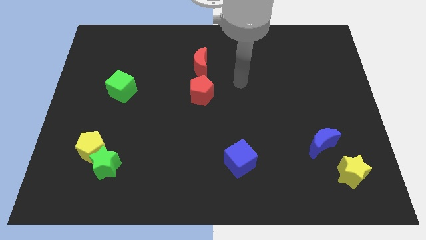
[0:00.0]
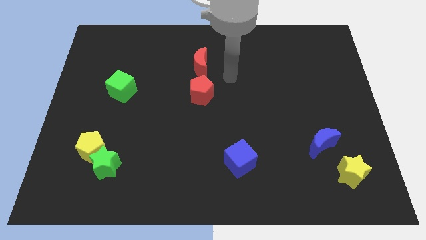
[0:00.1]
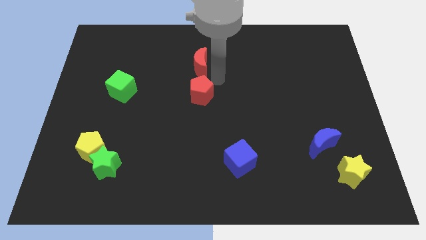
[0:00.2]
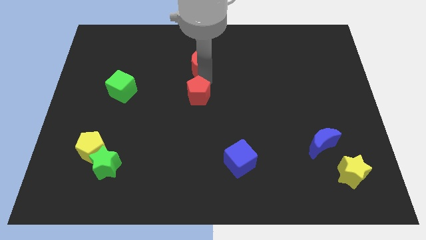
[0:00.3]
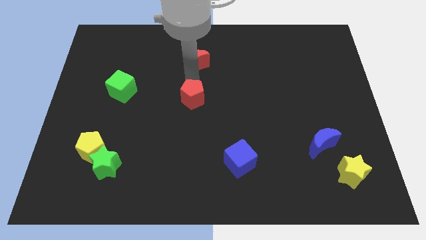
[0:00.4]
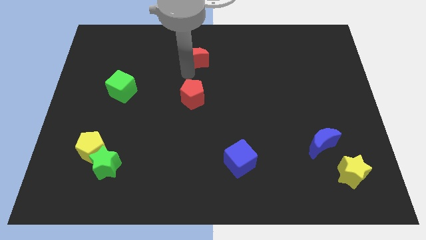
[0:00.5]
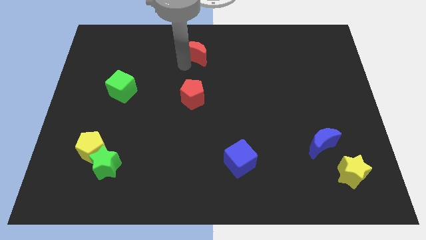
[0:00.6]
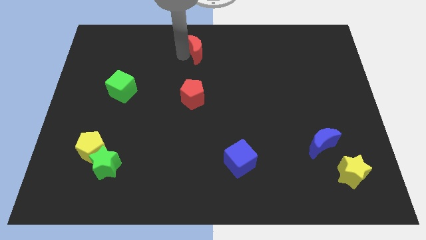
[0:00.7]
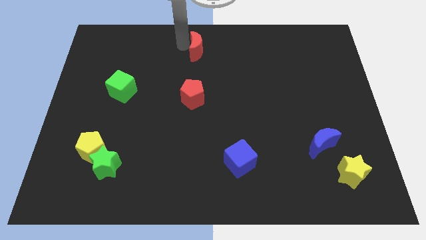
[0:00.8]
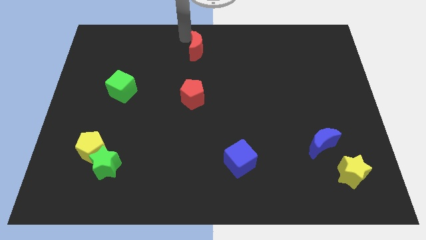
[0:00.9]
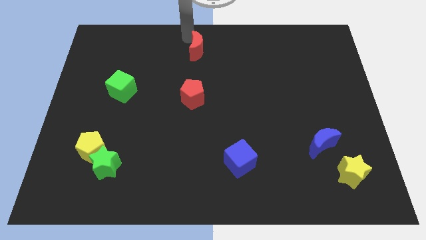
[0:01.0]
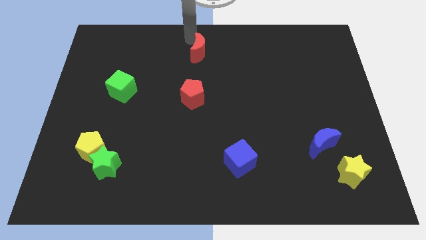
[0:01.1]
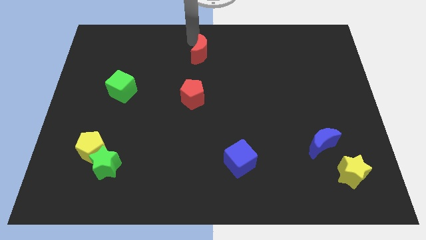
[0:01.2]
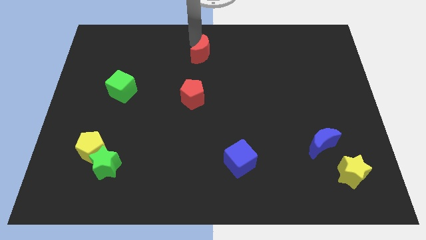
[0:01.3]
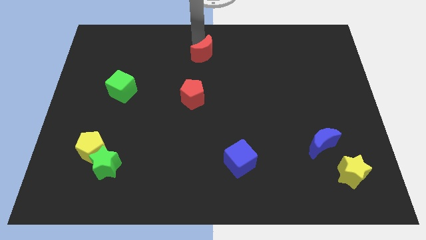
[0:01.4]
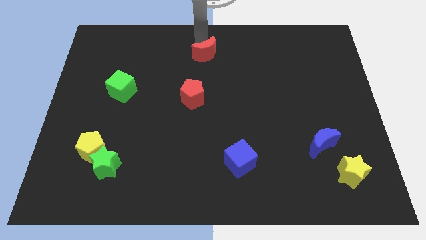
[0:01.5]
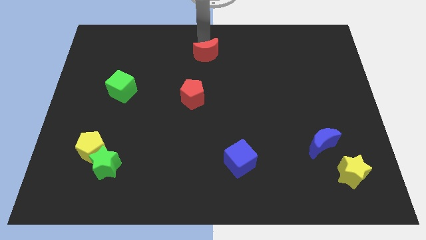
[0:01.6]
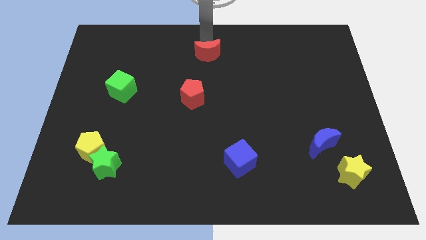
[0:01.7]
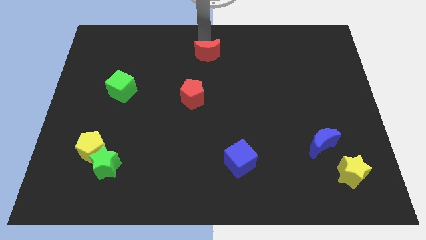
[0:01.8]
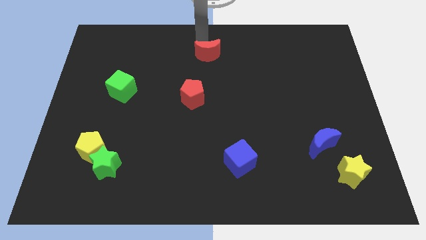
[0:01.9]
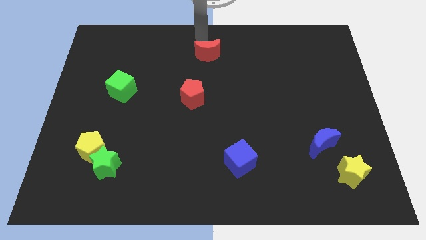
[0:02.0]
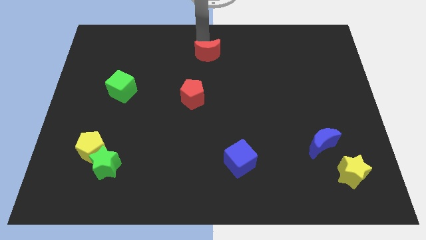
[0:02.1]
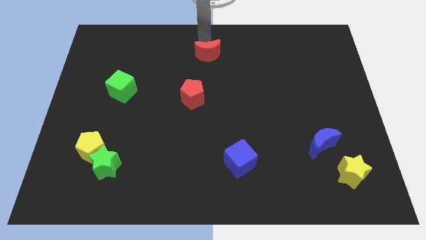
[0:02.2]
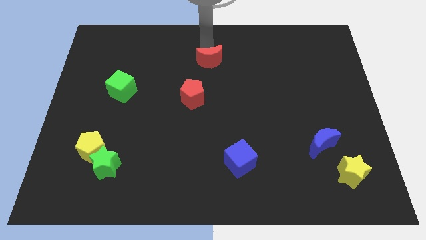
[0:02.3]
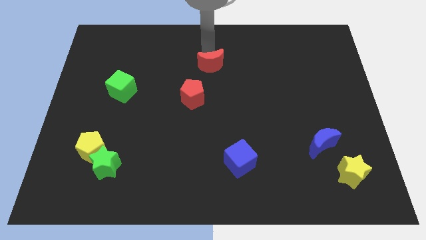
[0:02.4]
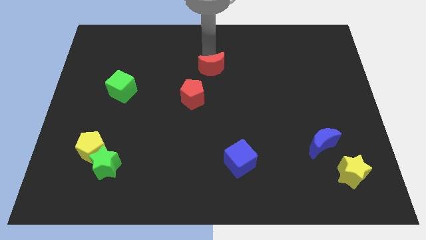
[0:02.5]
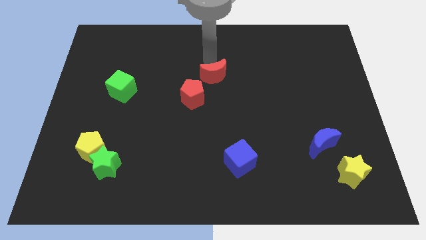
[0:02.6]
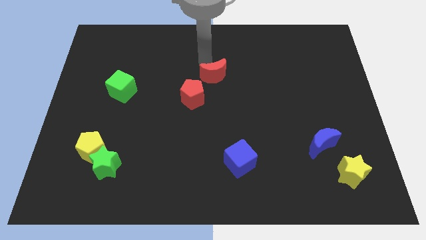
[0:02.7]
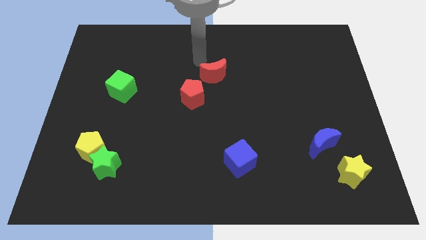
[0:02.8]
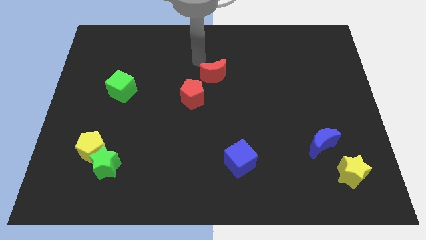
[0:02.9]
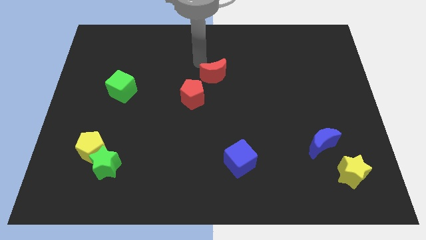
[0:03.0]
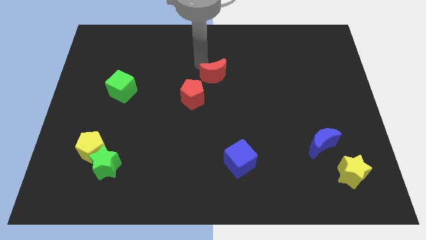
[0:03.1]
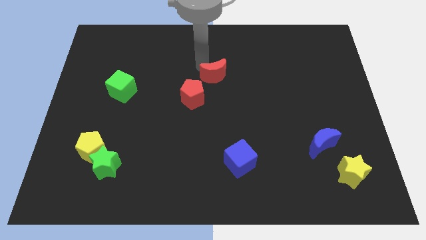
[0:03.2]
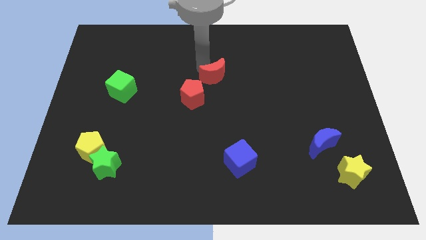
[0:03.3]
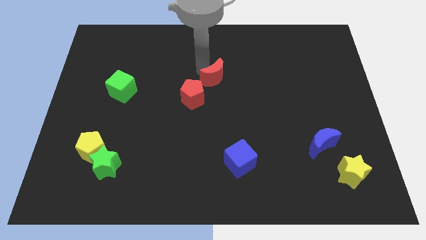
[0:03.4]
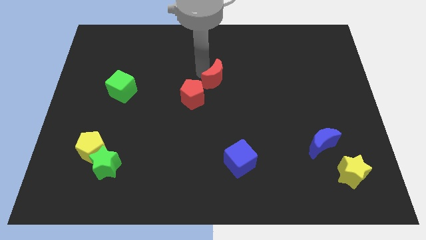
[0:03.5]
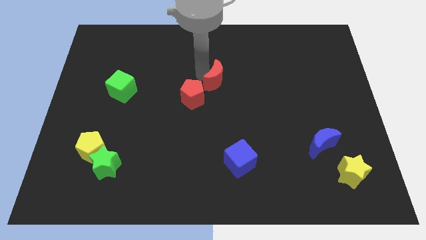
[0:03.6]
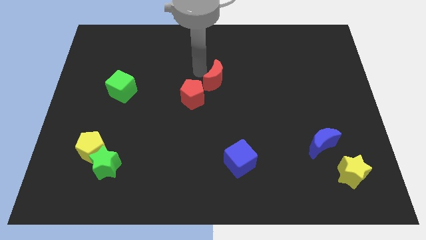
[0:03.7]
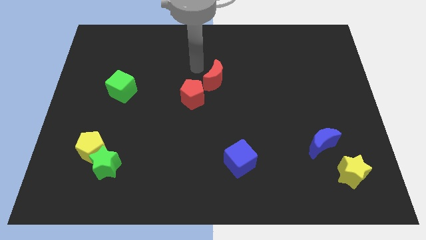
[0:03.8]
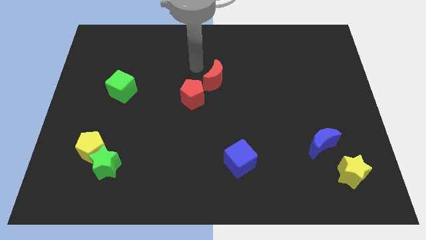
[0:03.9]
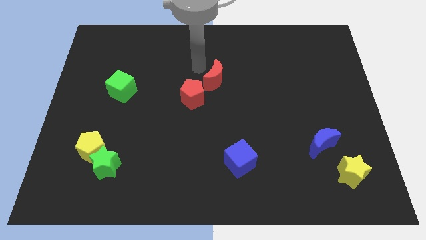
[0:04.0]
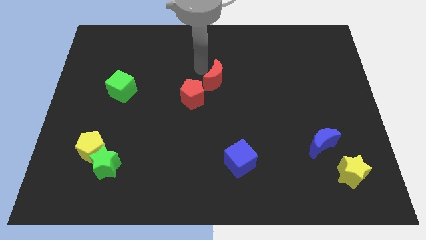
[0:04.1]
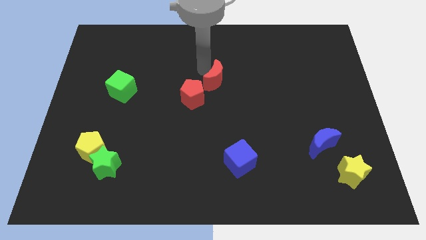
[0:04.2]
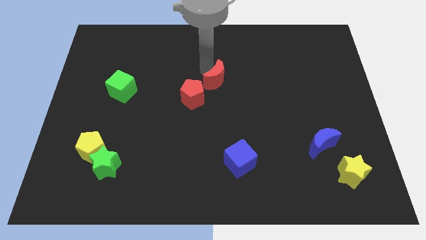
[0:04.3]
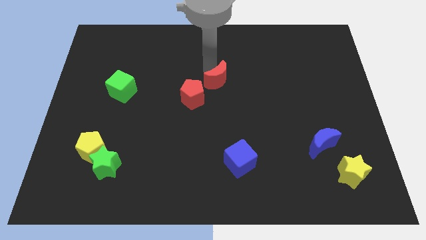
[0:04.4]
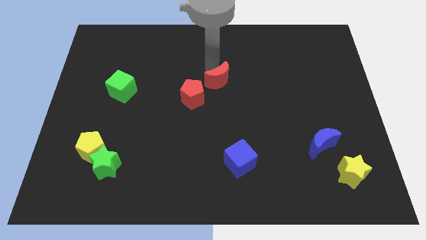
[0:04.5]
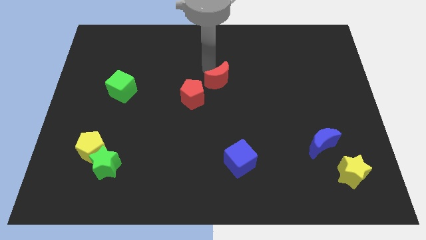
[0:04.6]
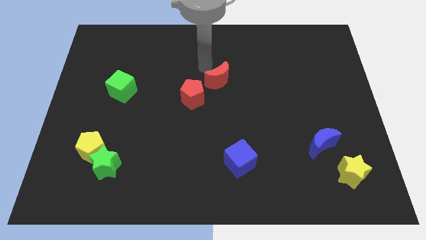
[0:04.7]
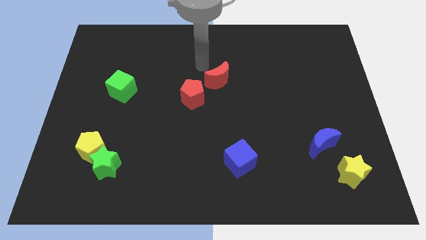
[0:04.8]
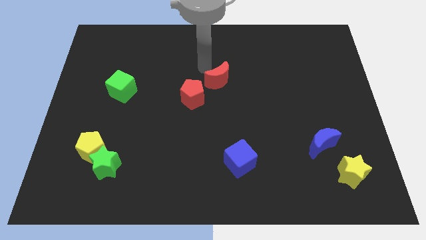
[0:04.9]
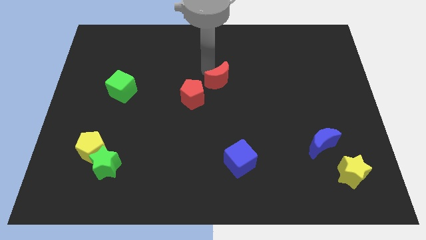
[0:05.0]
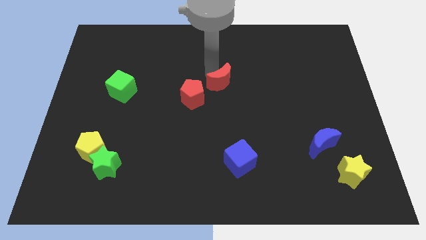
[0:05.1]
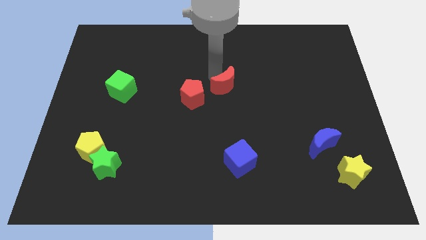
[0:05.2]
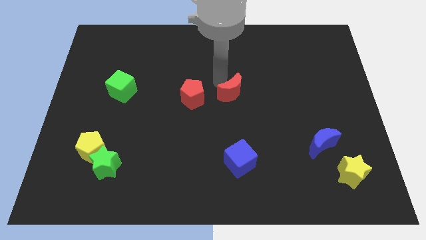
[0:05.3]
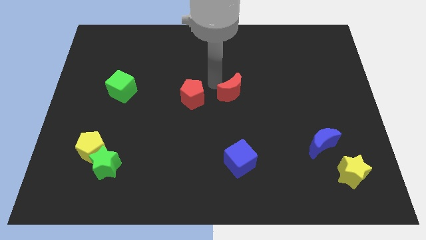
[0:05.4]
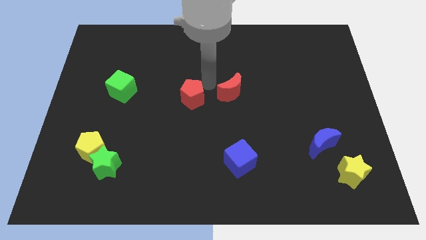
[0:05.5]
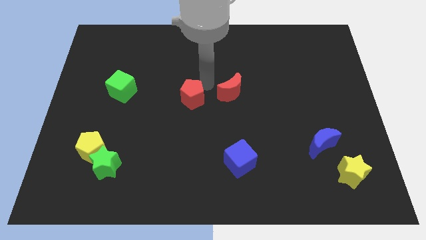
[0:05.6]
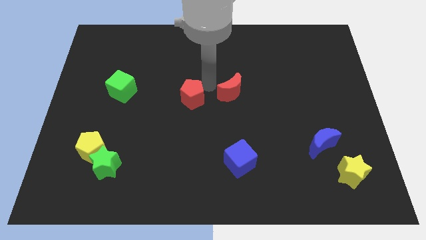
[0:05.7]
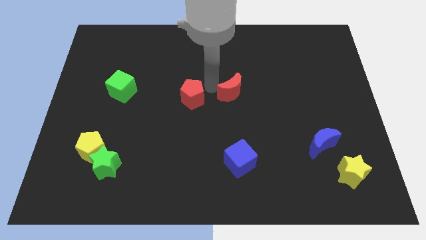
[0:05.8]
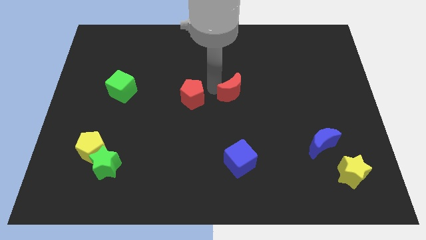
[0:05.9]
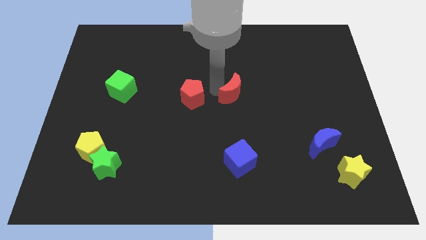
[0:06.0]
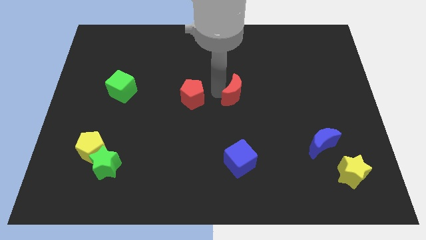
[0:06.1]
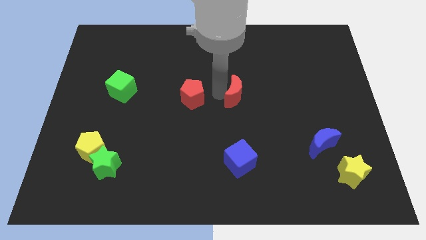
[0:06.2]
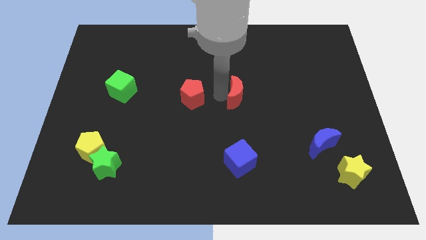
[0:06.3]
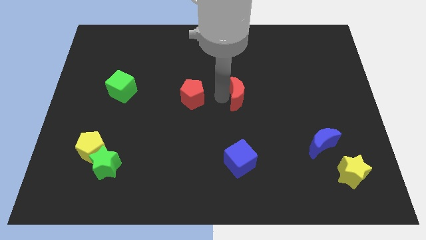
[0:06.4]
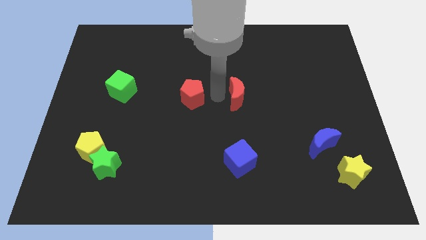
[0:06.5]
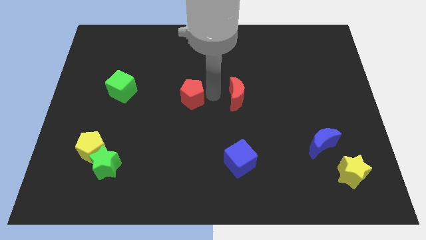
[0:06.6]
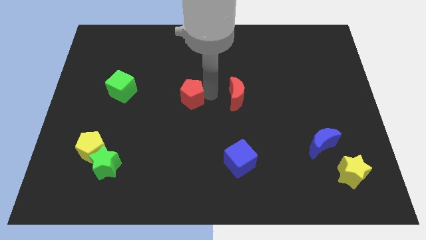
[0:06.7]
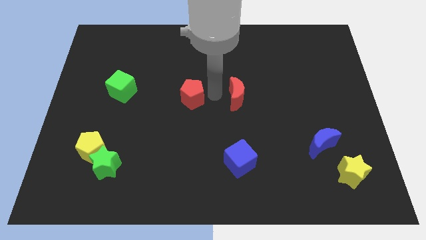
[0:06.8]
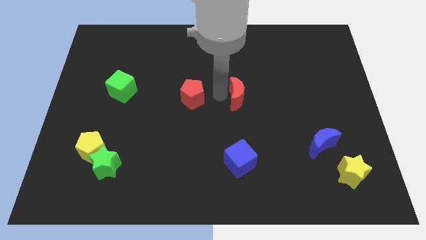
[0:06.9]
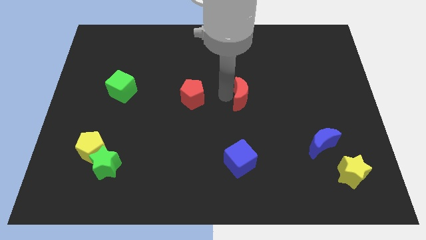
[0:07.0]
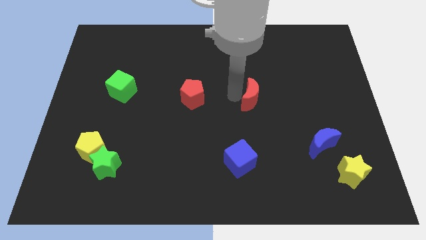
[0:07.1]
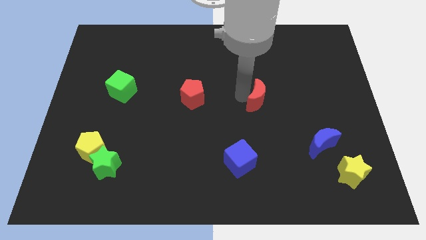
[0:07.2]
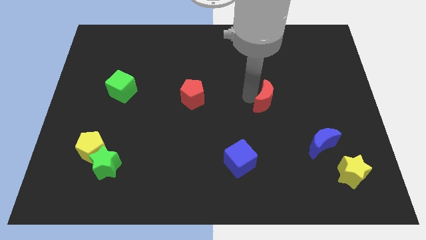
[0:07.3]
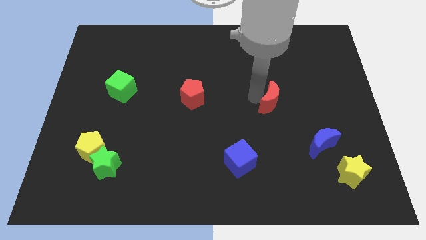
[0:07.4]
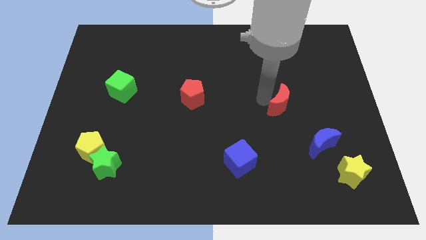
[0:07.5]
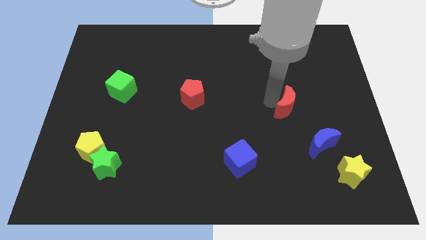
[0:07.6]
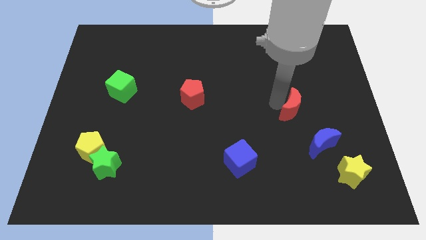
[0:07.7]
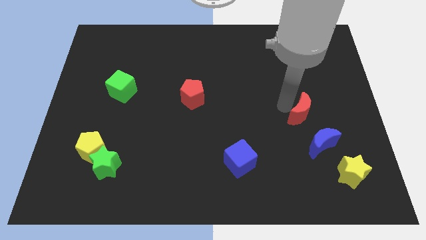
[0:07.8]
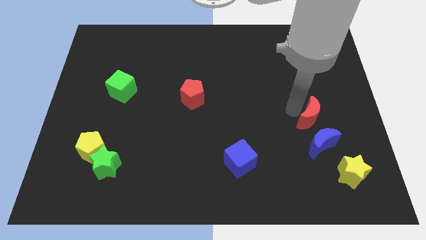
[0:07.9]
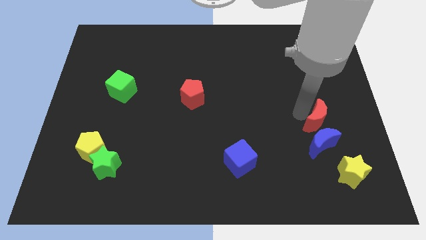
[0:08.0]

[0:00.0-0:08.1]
slide the red moon diagonally up and to the right of the blue moon
